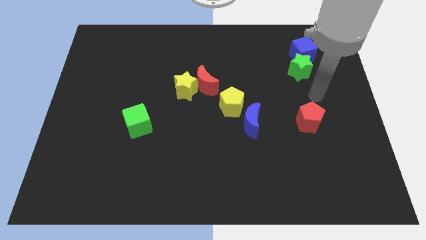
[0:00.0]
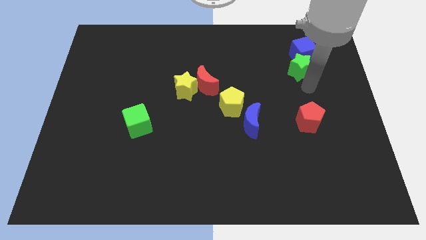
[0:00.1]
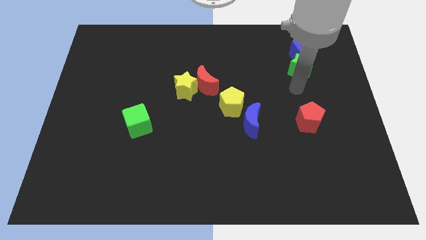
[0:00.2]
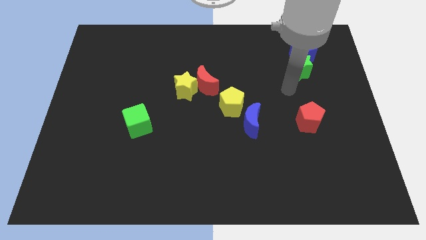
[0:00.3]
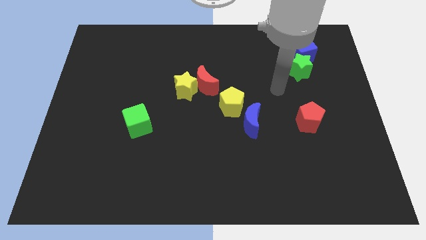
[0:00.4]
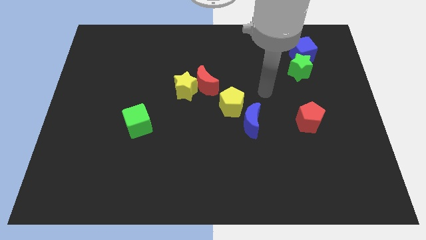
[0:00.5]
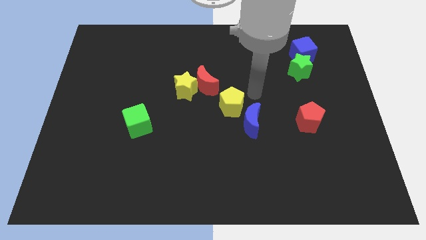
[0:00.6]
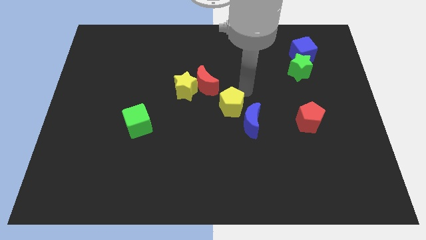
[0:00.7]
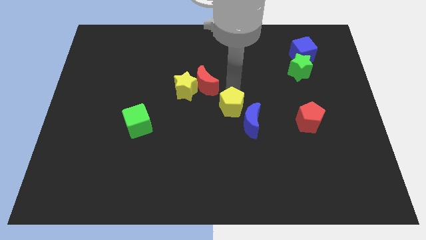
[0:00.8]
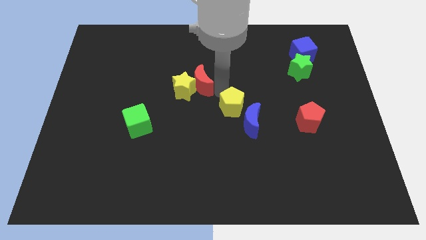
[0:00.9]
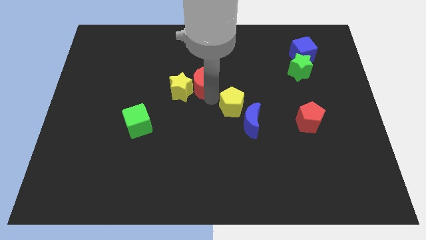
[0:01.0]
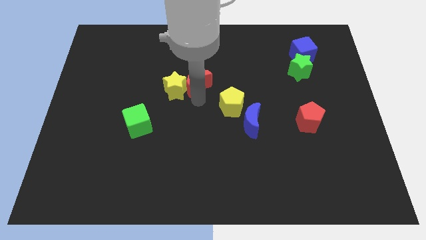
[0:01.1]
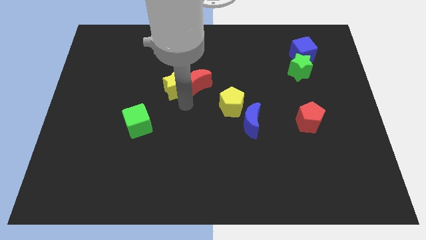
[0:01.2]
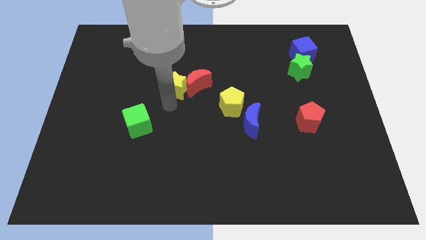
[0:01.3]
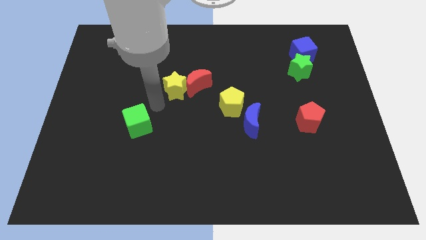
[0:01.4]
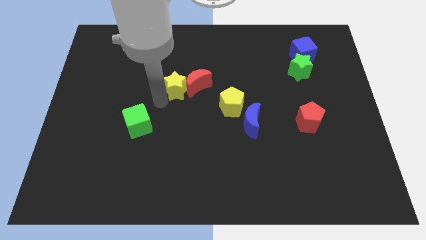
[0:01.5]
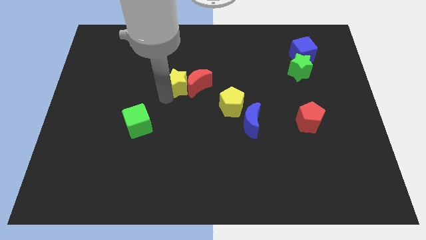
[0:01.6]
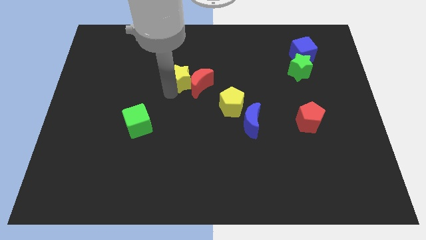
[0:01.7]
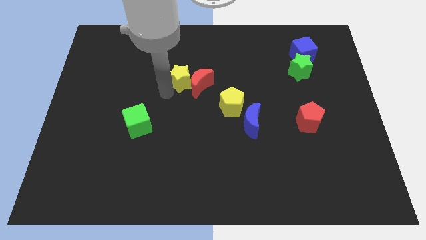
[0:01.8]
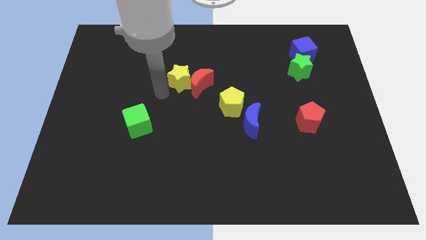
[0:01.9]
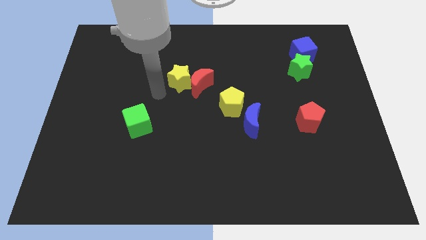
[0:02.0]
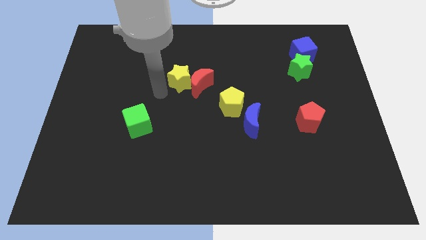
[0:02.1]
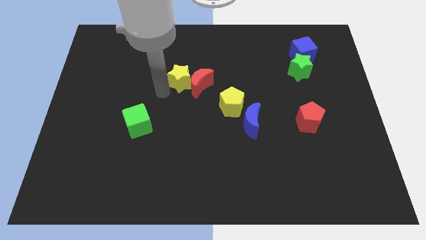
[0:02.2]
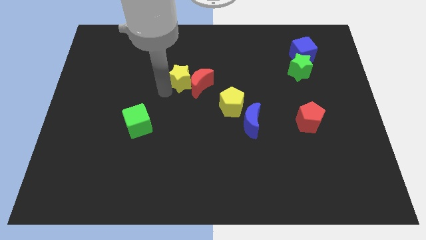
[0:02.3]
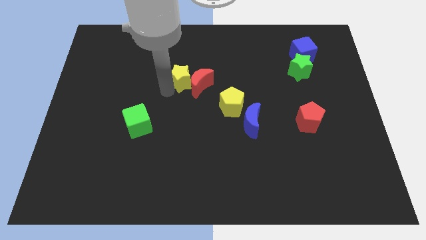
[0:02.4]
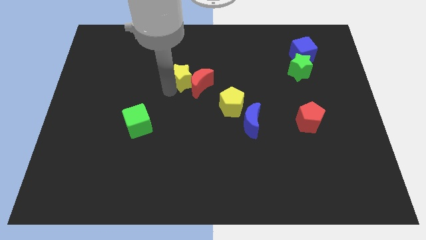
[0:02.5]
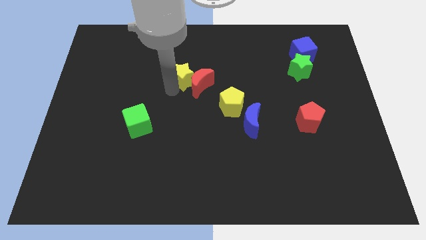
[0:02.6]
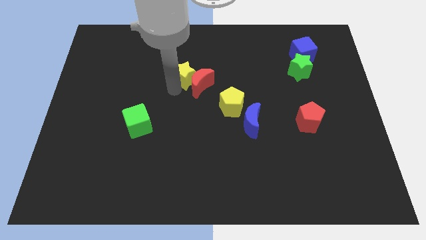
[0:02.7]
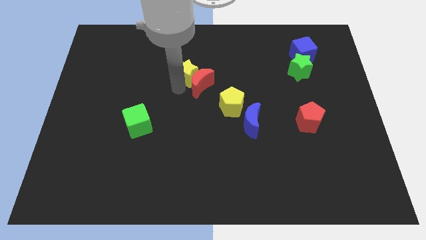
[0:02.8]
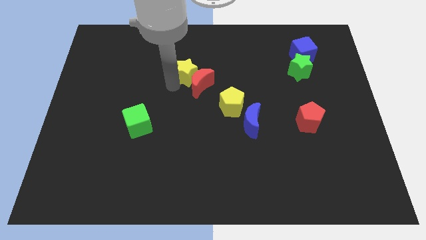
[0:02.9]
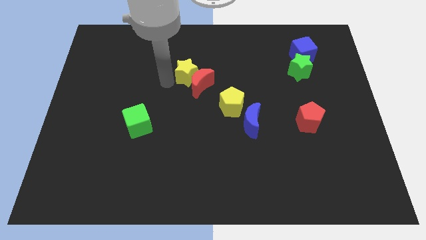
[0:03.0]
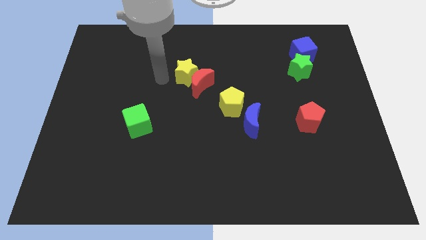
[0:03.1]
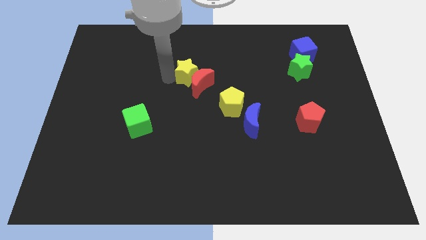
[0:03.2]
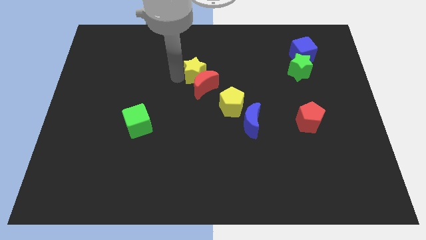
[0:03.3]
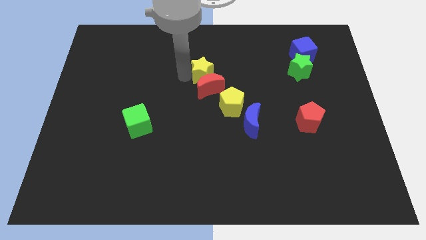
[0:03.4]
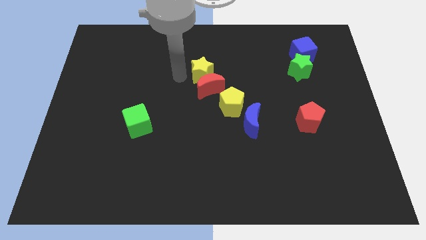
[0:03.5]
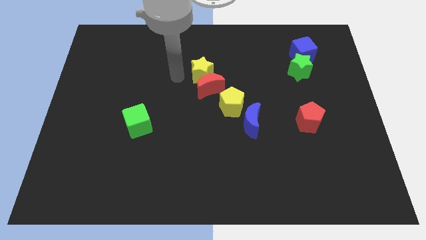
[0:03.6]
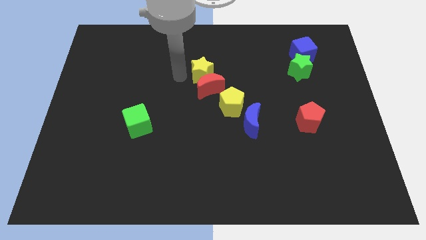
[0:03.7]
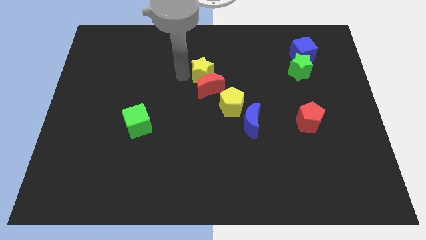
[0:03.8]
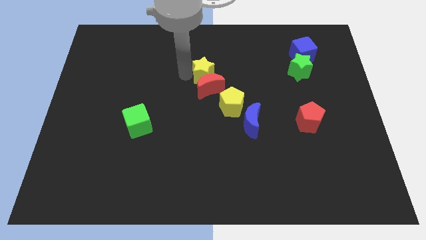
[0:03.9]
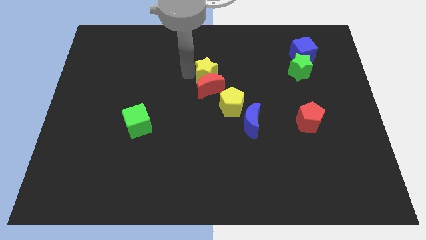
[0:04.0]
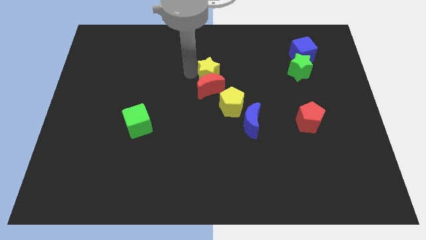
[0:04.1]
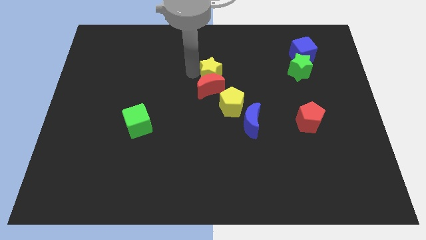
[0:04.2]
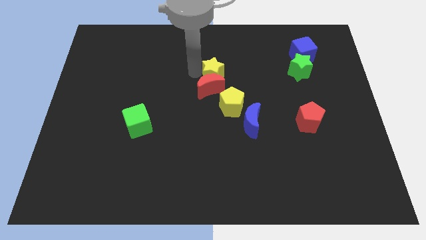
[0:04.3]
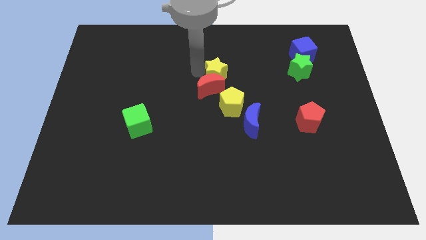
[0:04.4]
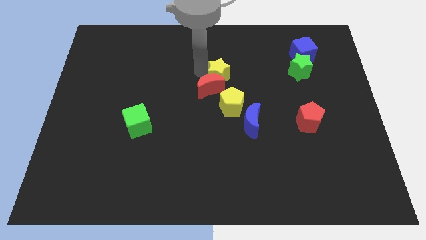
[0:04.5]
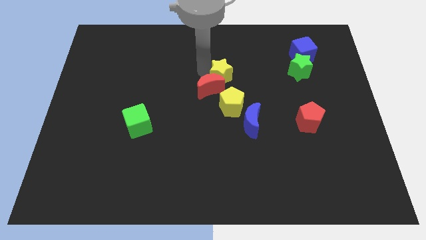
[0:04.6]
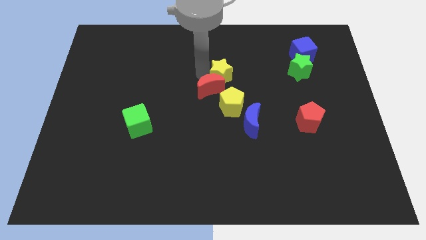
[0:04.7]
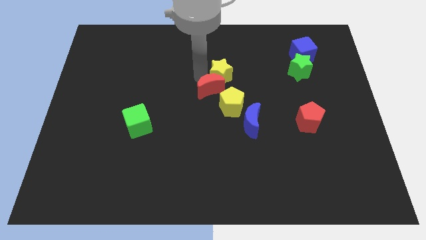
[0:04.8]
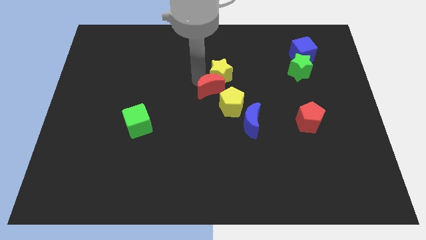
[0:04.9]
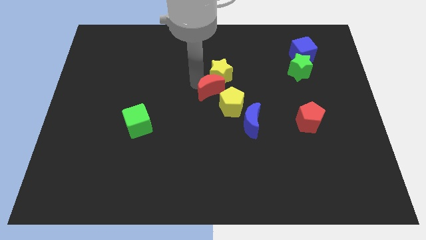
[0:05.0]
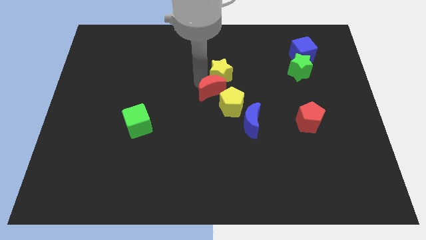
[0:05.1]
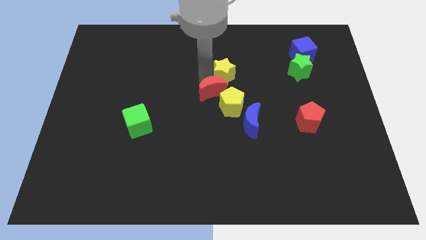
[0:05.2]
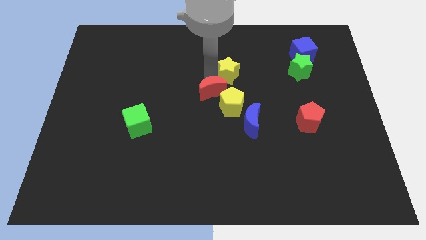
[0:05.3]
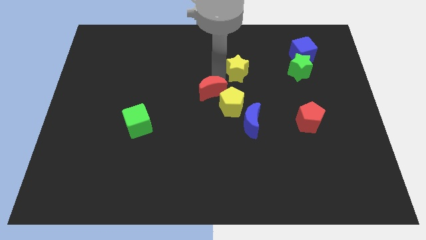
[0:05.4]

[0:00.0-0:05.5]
put the yellow star left of the green star

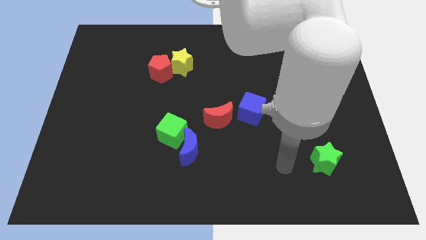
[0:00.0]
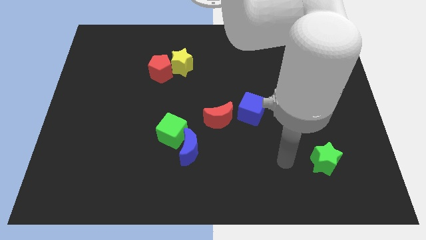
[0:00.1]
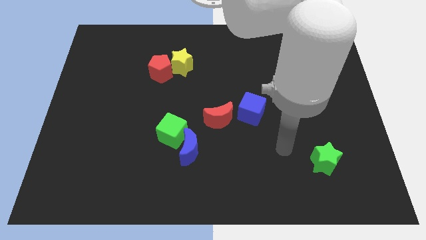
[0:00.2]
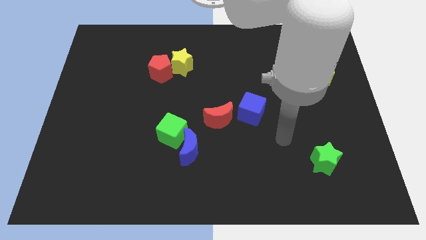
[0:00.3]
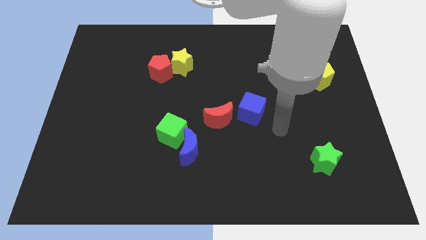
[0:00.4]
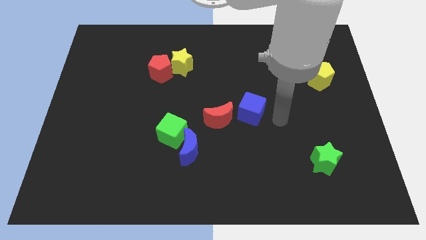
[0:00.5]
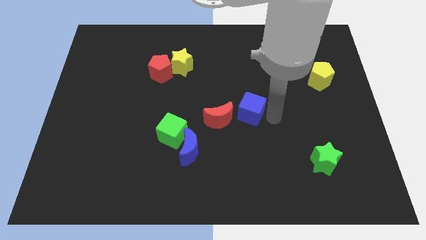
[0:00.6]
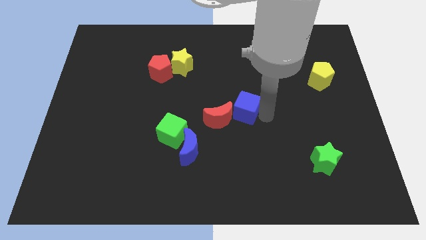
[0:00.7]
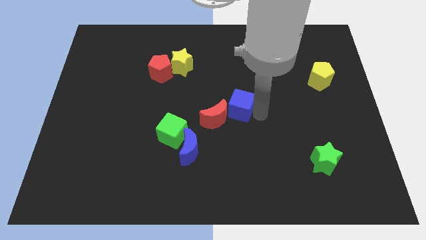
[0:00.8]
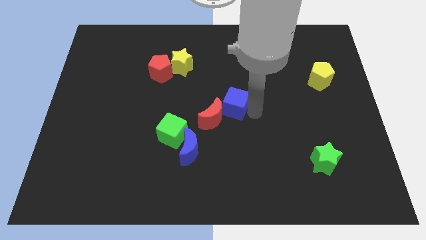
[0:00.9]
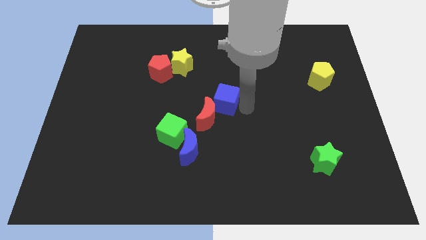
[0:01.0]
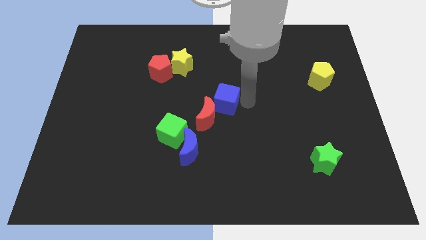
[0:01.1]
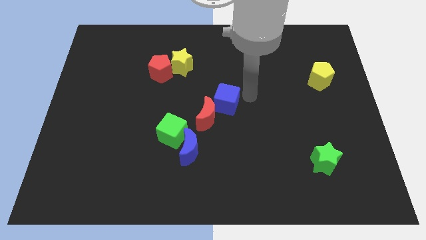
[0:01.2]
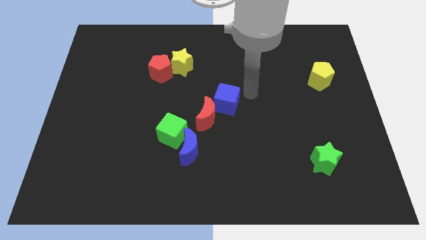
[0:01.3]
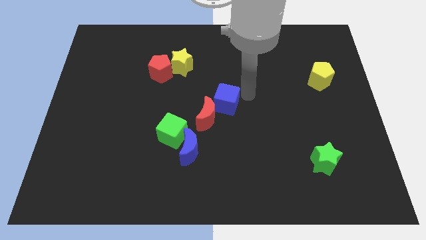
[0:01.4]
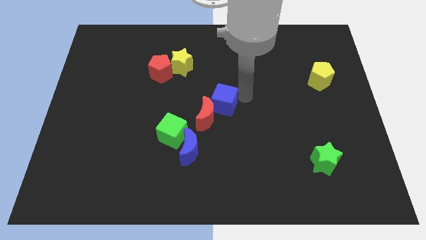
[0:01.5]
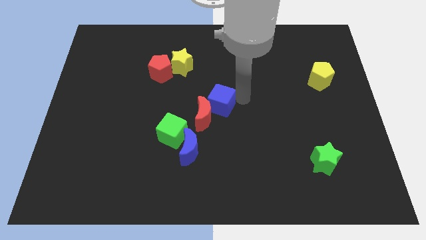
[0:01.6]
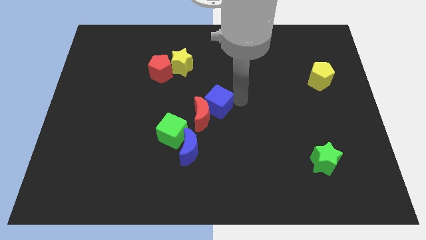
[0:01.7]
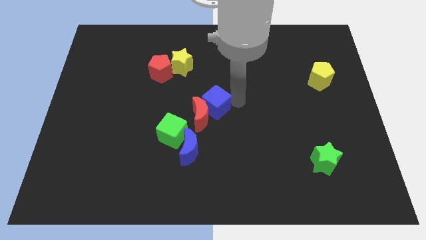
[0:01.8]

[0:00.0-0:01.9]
move the blue cube to the top right of the green cube
